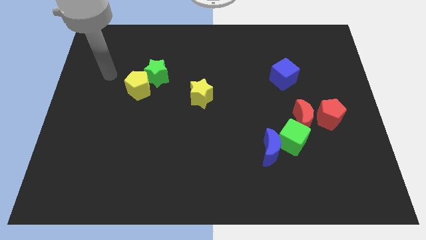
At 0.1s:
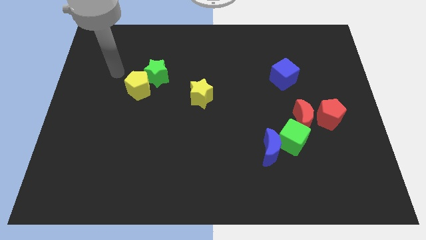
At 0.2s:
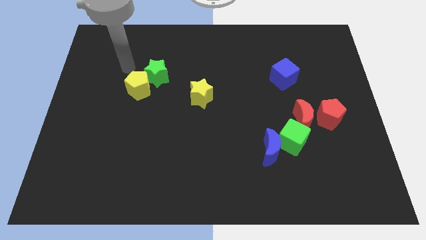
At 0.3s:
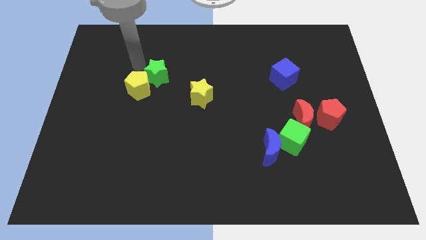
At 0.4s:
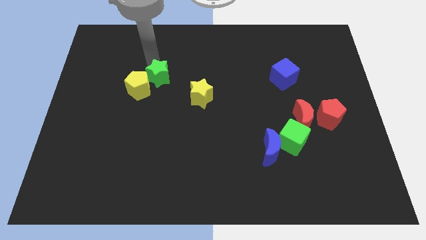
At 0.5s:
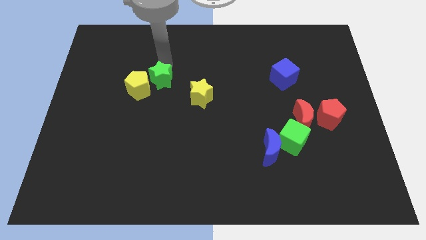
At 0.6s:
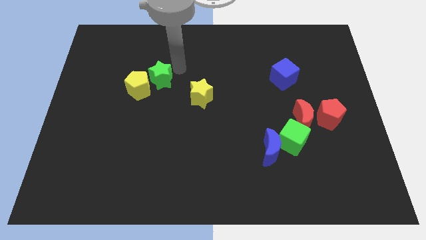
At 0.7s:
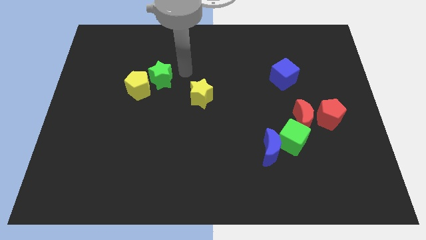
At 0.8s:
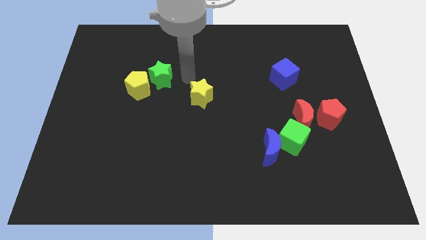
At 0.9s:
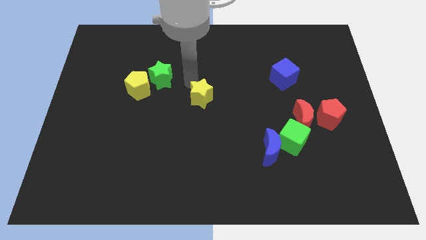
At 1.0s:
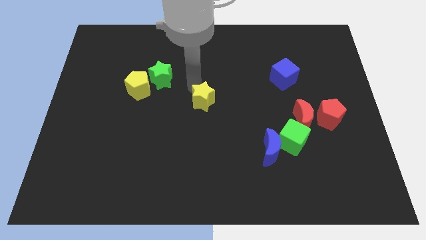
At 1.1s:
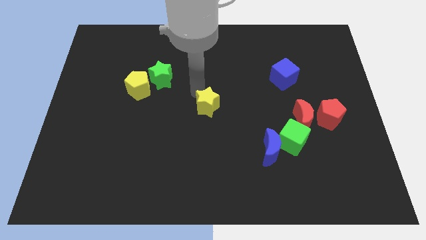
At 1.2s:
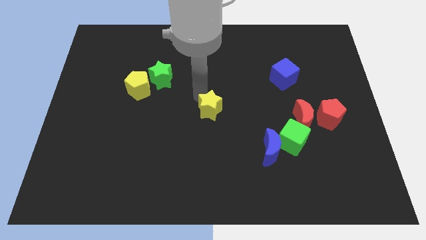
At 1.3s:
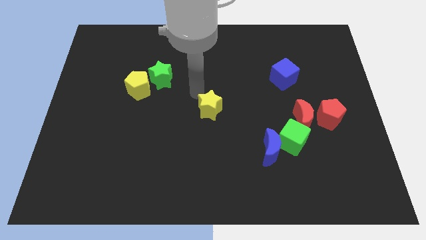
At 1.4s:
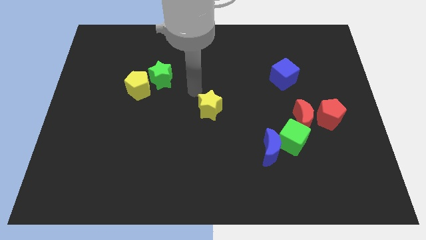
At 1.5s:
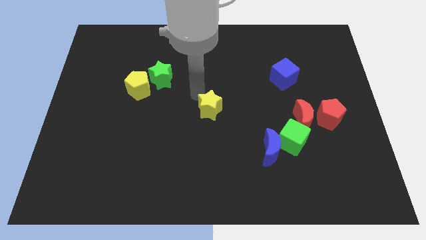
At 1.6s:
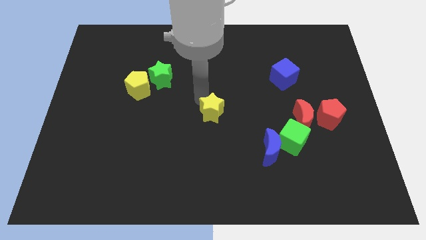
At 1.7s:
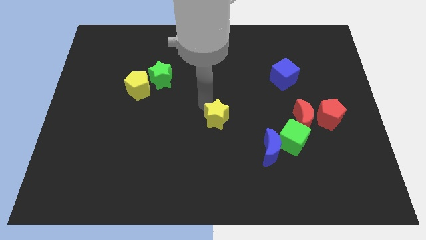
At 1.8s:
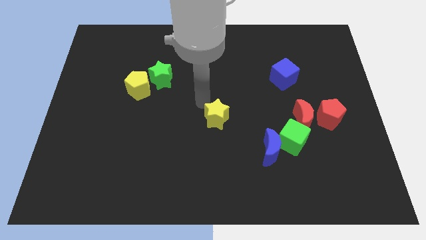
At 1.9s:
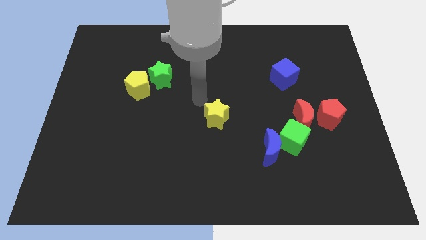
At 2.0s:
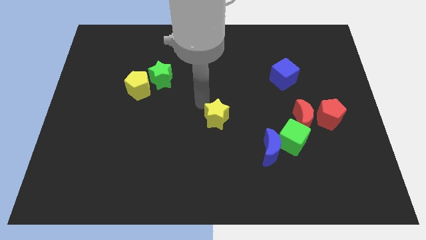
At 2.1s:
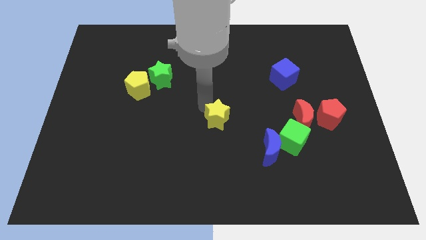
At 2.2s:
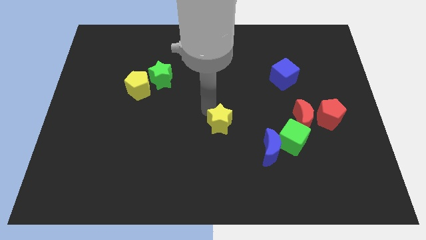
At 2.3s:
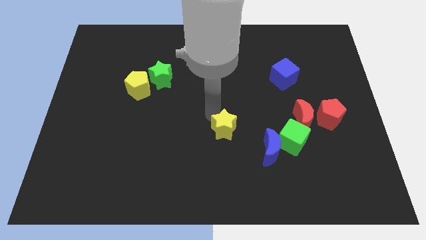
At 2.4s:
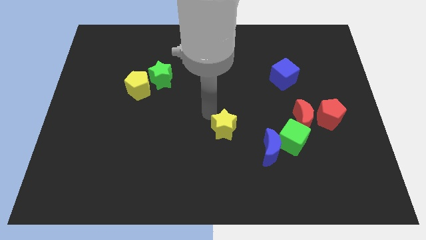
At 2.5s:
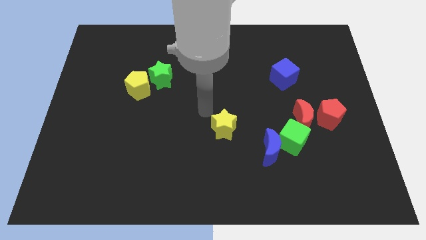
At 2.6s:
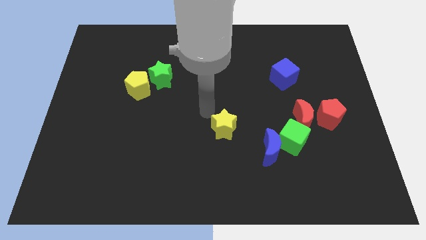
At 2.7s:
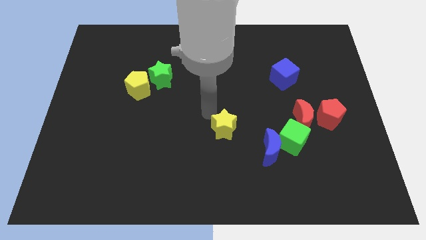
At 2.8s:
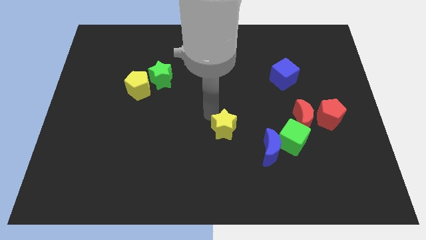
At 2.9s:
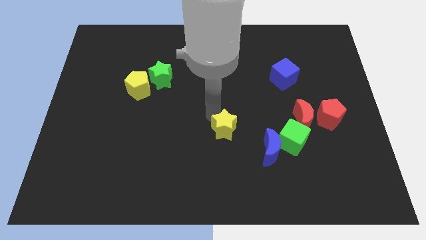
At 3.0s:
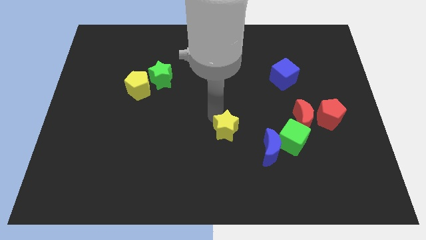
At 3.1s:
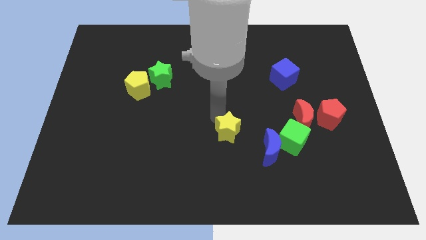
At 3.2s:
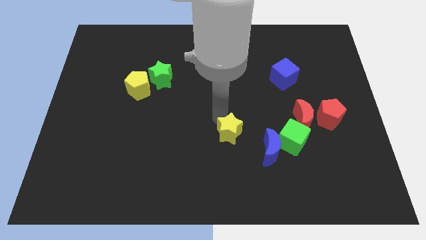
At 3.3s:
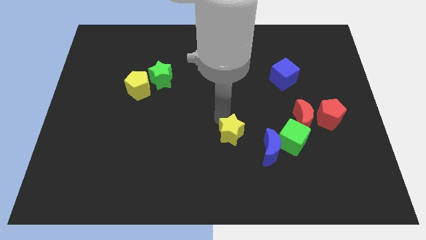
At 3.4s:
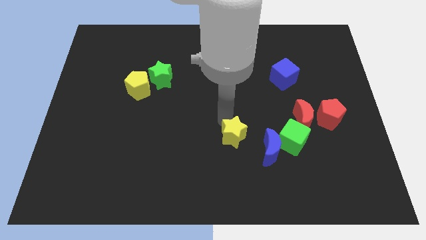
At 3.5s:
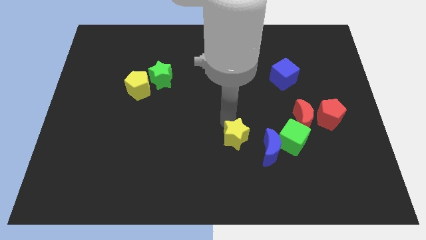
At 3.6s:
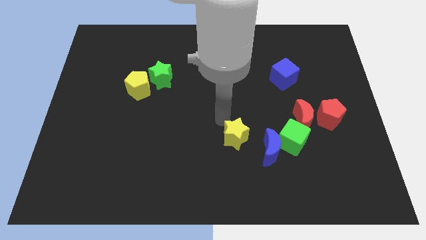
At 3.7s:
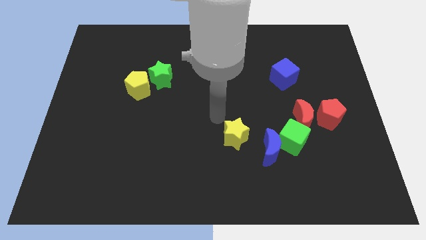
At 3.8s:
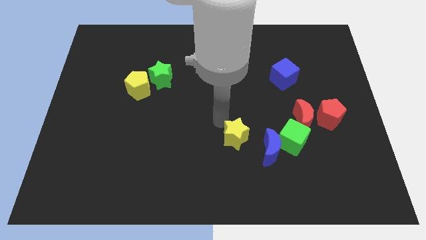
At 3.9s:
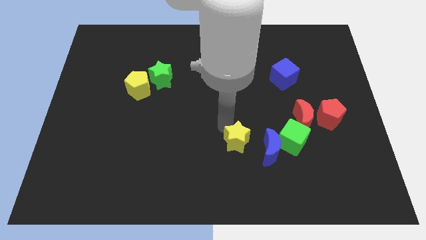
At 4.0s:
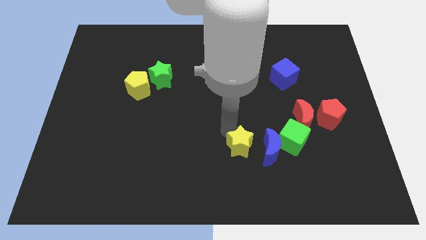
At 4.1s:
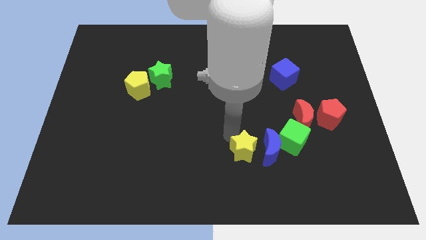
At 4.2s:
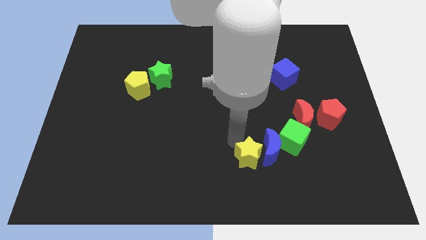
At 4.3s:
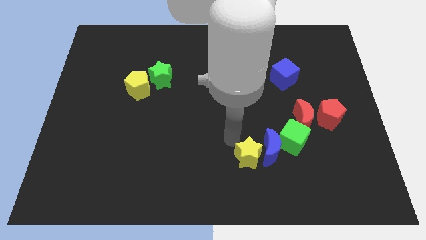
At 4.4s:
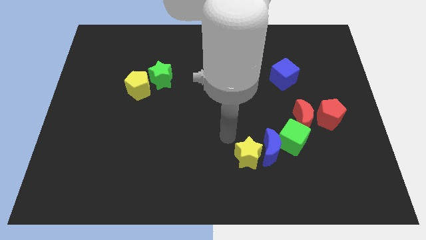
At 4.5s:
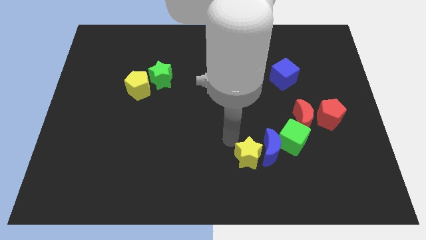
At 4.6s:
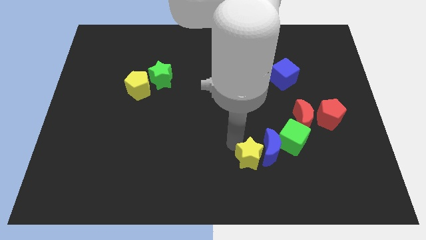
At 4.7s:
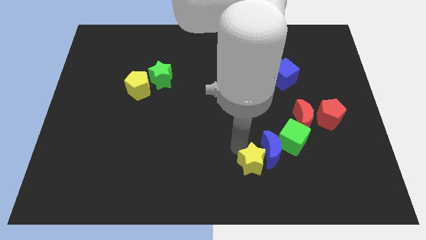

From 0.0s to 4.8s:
slide the yellow star diagonally down and to the right

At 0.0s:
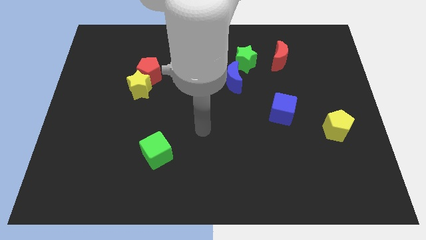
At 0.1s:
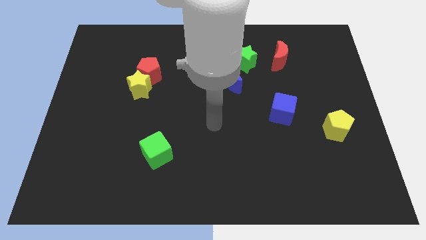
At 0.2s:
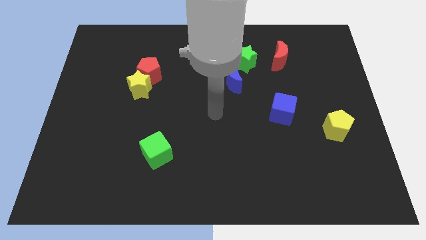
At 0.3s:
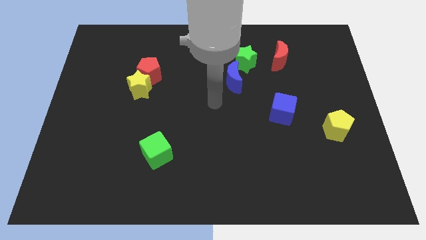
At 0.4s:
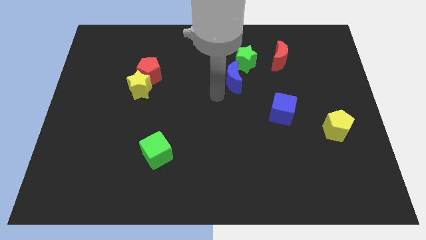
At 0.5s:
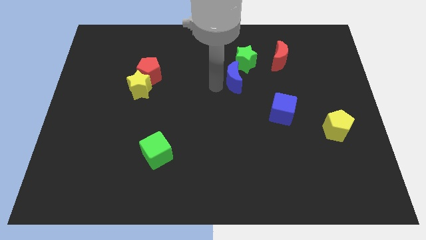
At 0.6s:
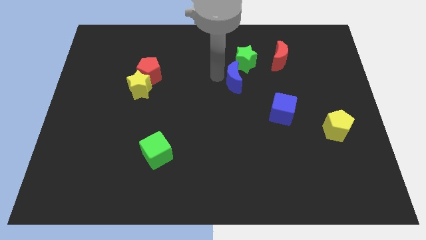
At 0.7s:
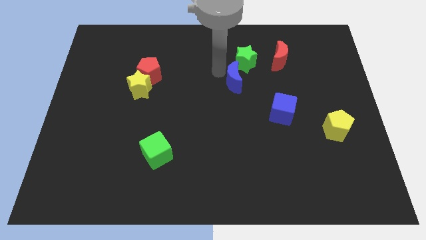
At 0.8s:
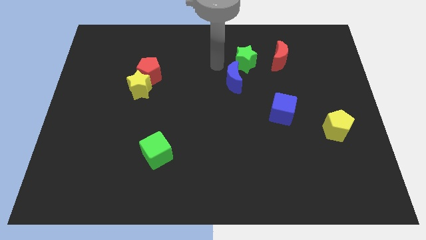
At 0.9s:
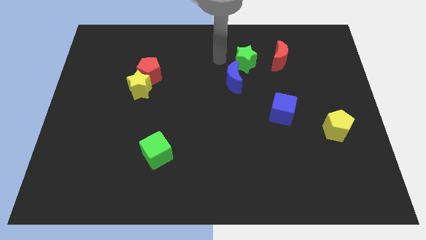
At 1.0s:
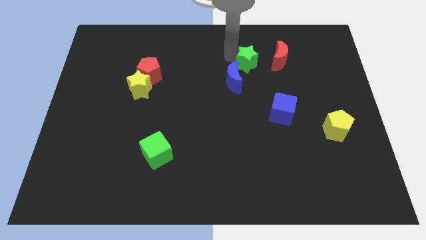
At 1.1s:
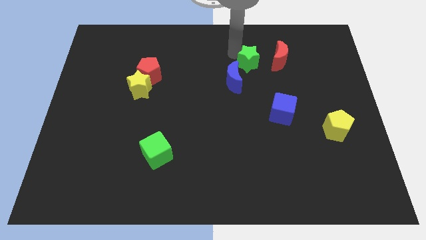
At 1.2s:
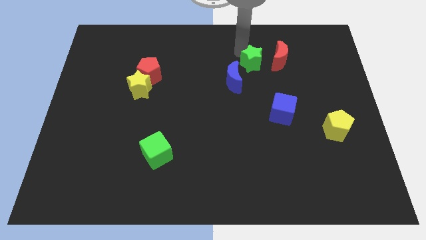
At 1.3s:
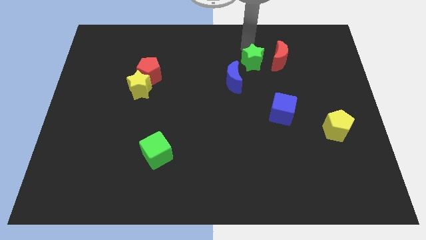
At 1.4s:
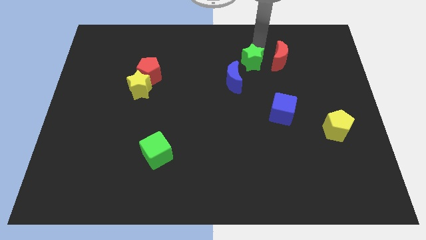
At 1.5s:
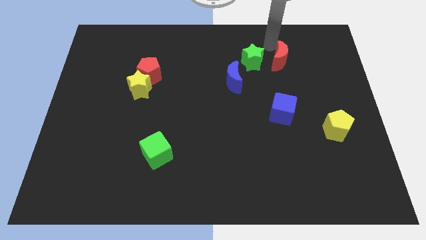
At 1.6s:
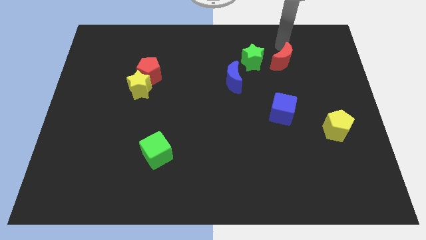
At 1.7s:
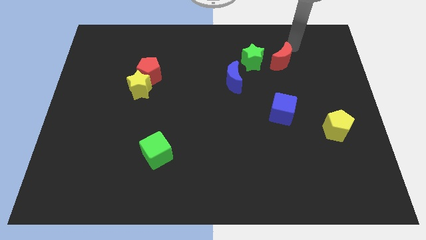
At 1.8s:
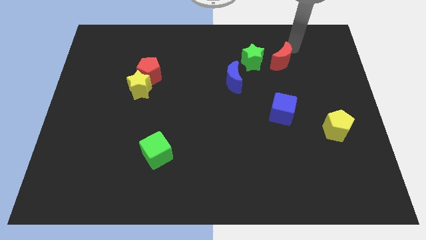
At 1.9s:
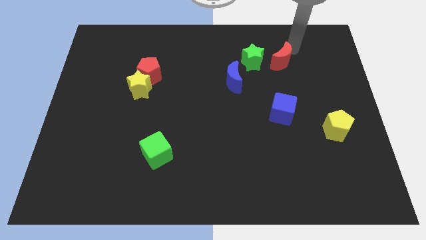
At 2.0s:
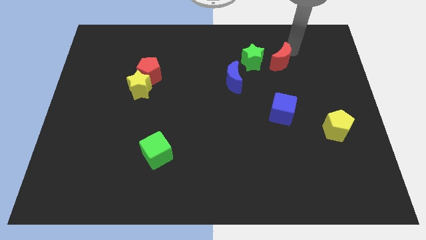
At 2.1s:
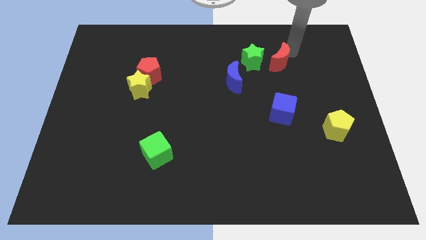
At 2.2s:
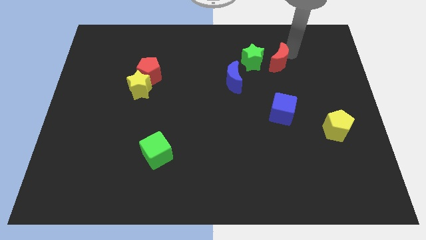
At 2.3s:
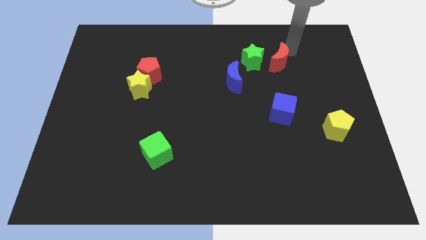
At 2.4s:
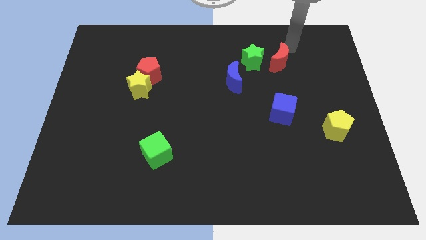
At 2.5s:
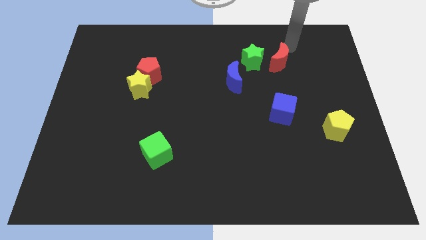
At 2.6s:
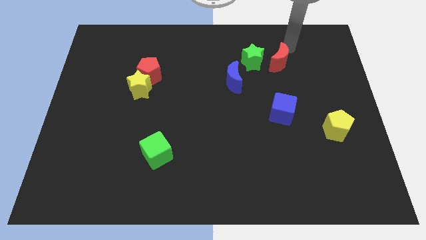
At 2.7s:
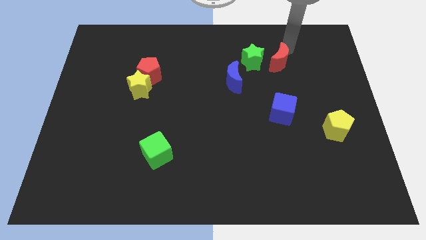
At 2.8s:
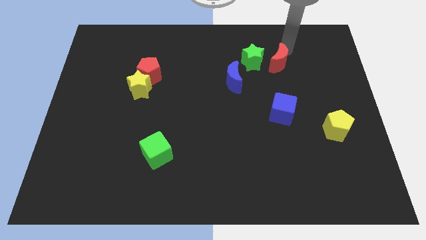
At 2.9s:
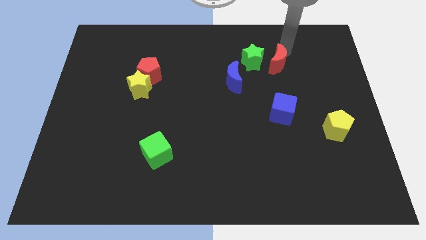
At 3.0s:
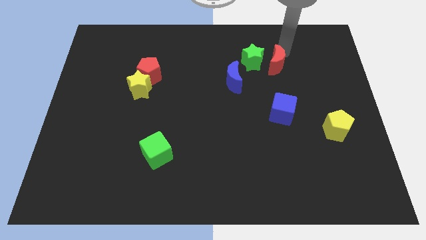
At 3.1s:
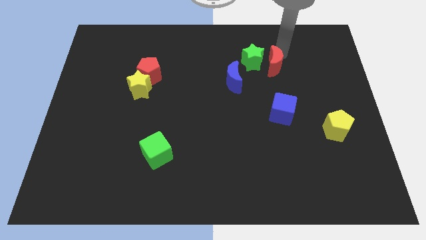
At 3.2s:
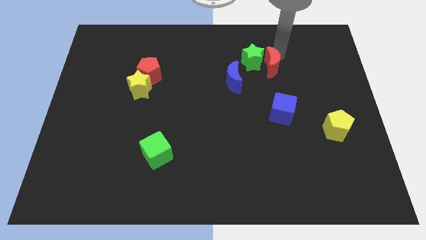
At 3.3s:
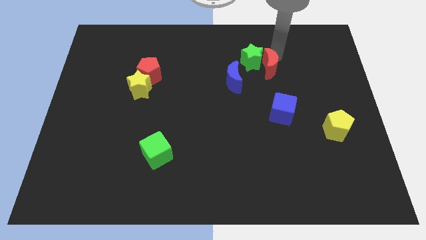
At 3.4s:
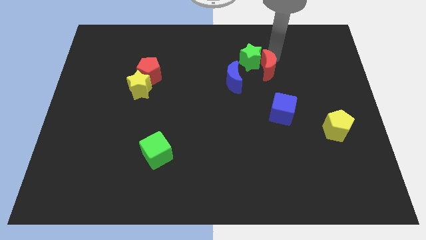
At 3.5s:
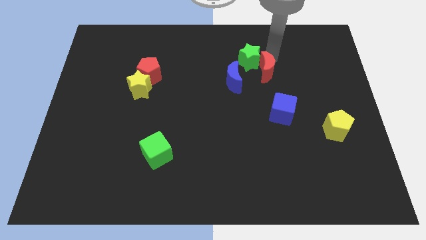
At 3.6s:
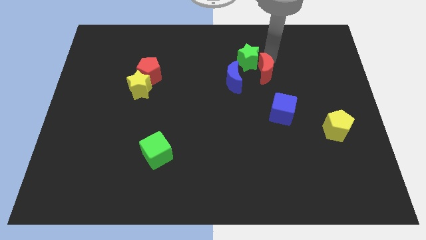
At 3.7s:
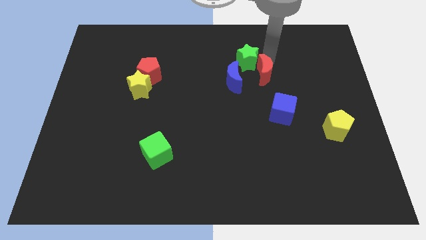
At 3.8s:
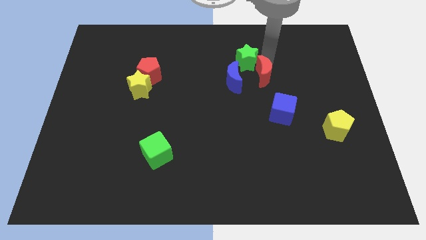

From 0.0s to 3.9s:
slightly move the red moon down and left
